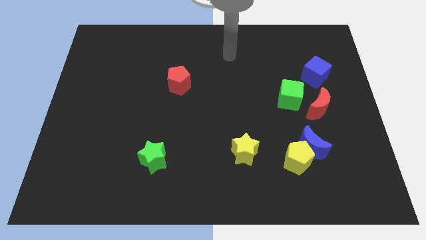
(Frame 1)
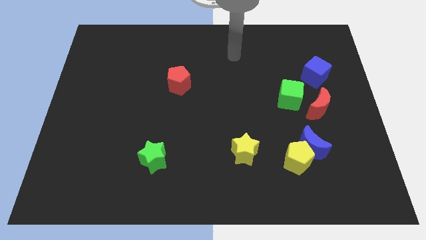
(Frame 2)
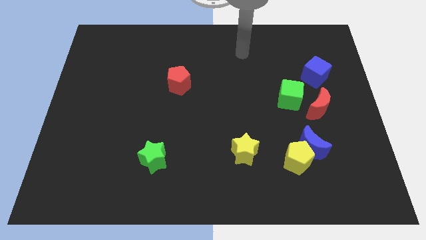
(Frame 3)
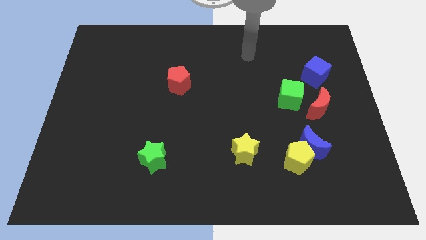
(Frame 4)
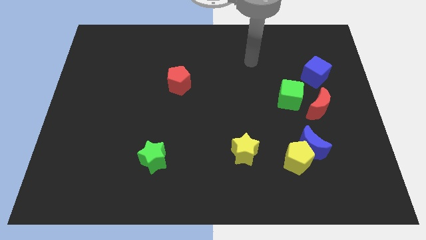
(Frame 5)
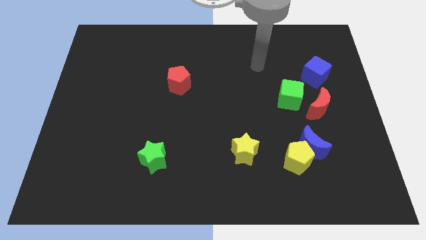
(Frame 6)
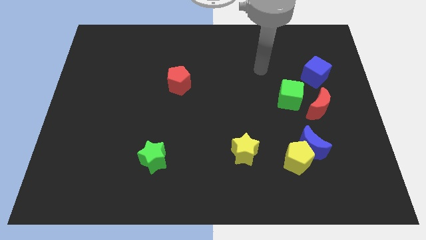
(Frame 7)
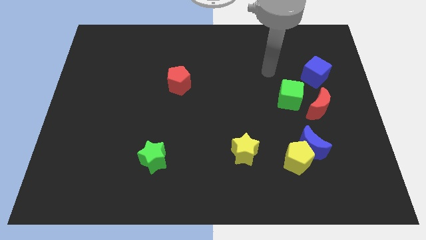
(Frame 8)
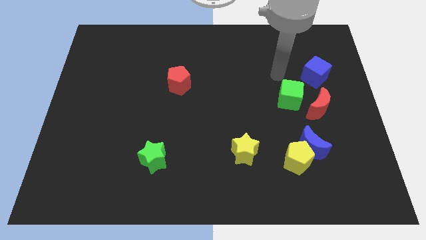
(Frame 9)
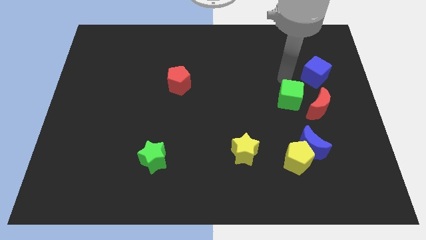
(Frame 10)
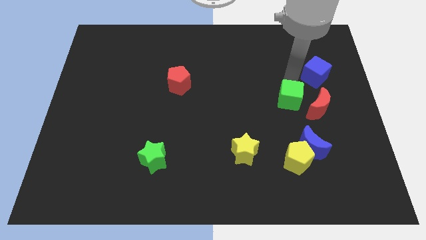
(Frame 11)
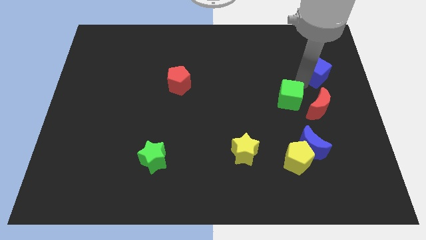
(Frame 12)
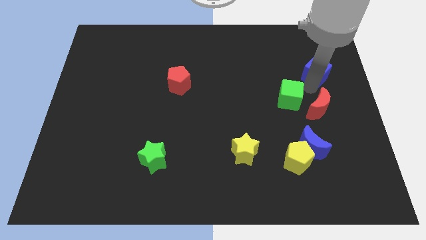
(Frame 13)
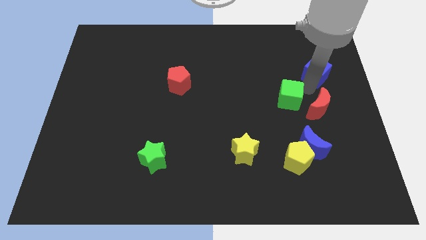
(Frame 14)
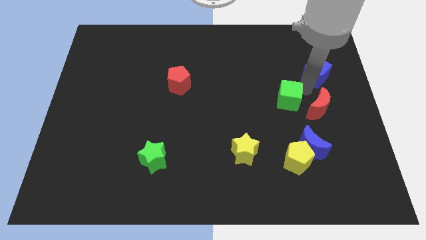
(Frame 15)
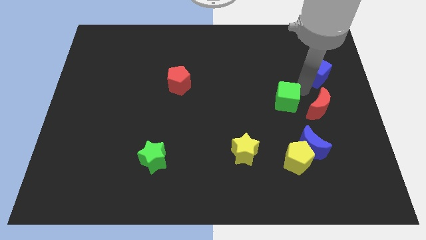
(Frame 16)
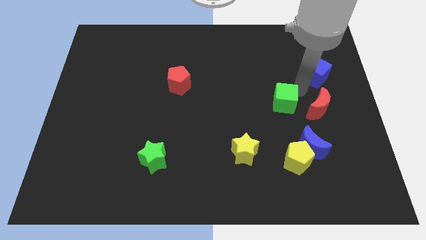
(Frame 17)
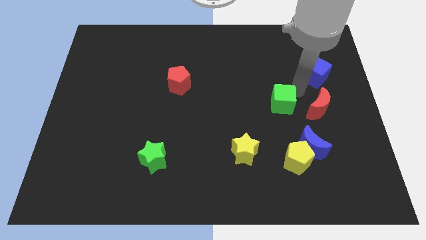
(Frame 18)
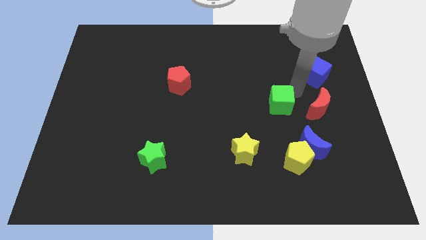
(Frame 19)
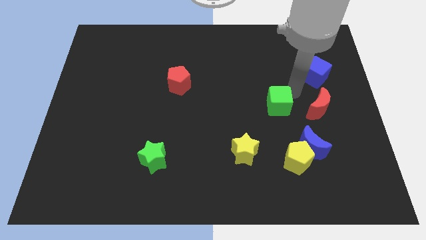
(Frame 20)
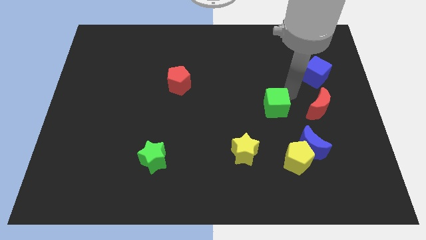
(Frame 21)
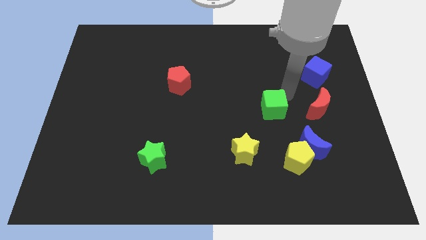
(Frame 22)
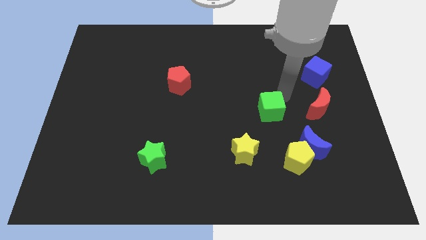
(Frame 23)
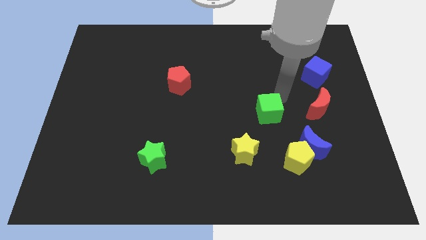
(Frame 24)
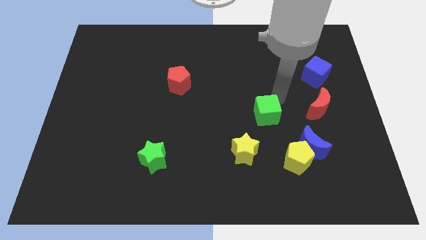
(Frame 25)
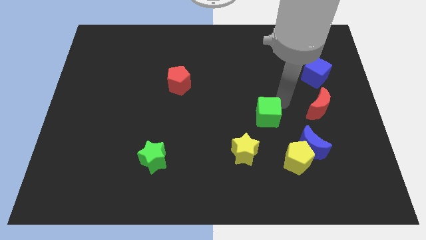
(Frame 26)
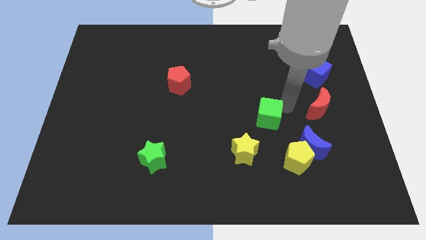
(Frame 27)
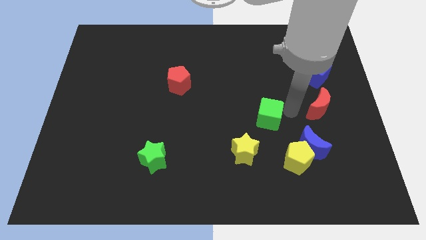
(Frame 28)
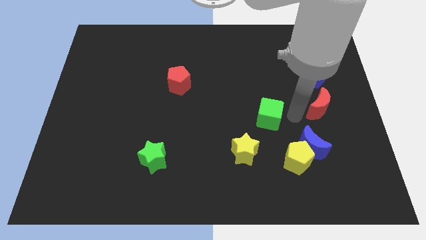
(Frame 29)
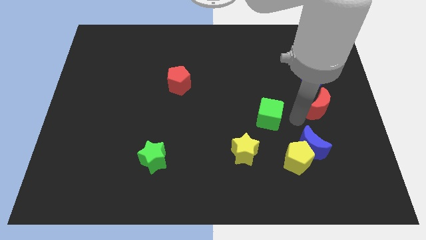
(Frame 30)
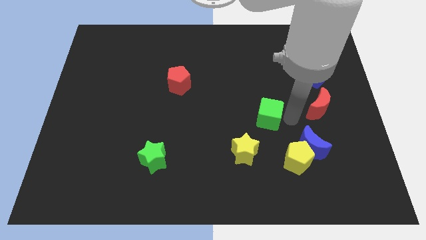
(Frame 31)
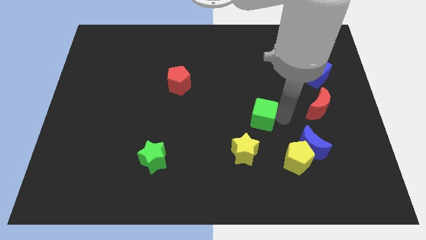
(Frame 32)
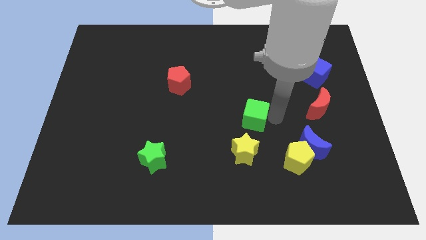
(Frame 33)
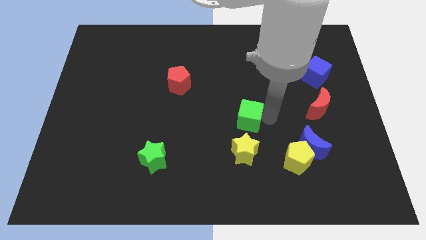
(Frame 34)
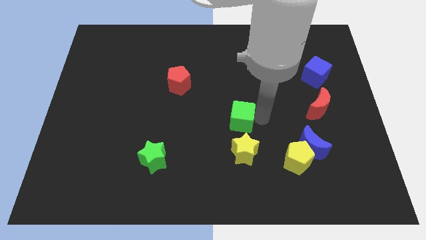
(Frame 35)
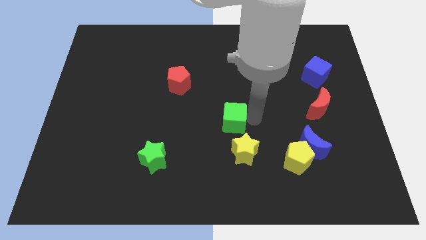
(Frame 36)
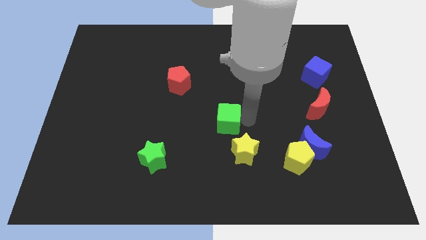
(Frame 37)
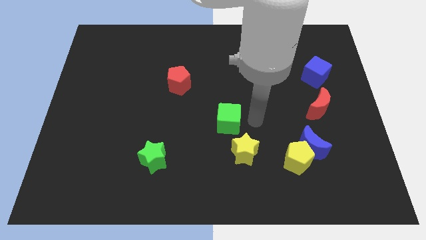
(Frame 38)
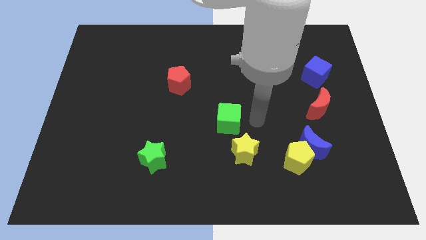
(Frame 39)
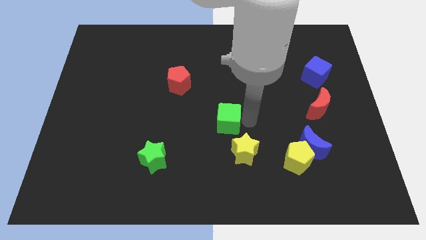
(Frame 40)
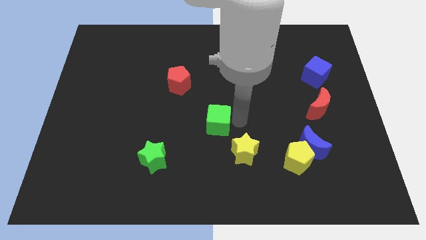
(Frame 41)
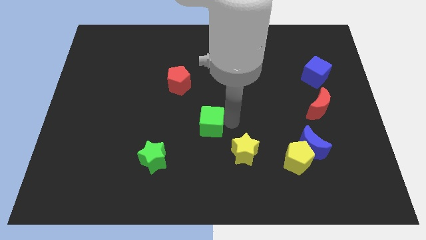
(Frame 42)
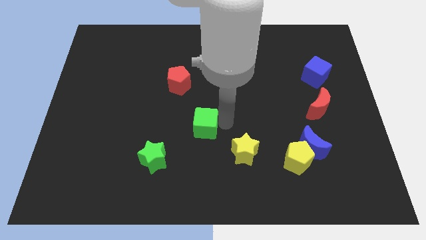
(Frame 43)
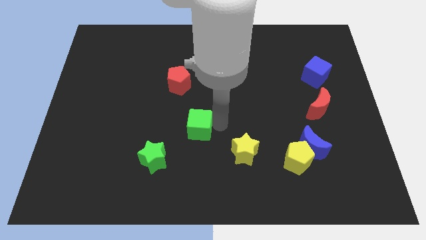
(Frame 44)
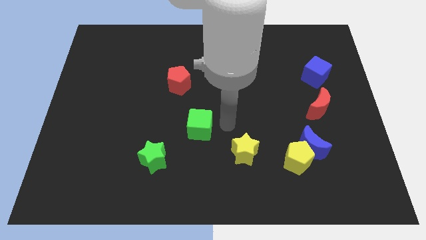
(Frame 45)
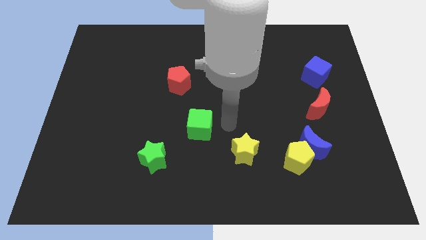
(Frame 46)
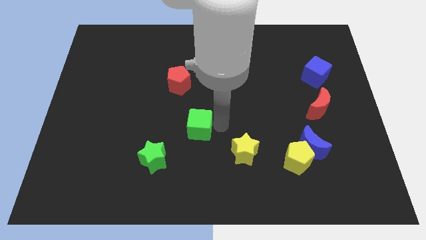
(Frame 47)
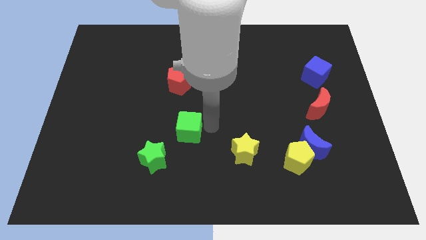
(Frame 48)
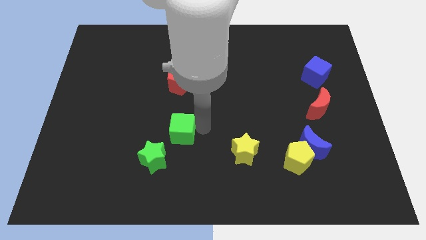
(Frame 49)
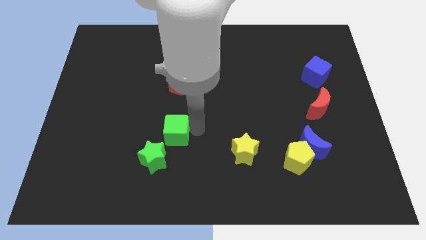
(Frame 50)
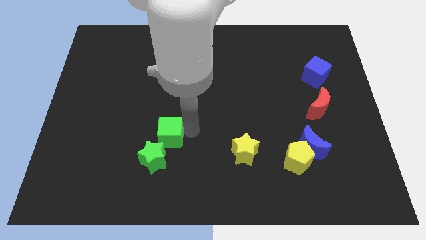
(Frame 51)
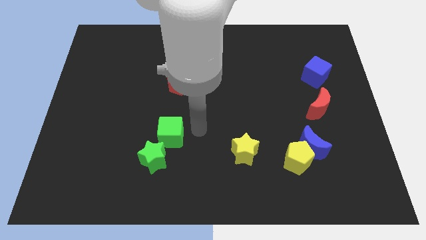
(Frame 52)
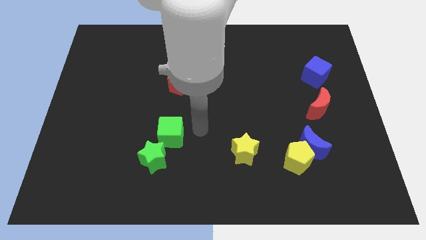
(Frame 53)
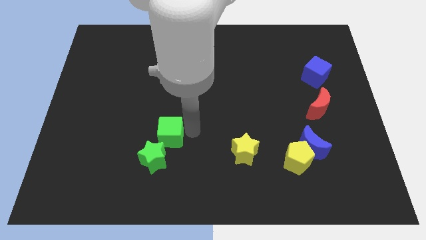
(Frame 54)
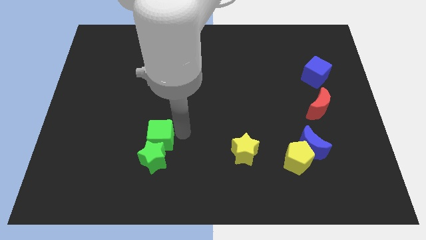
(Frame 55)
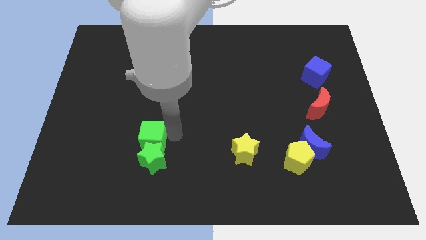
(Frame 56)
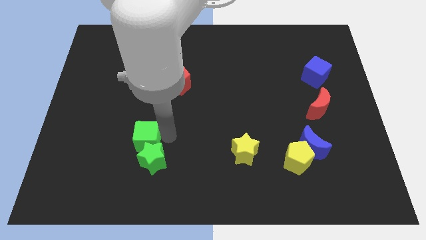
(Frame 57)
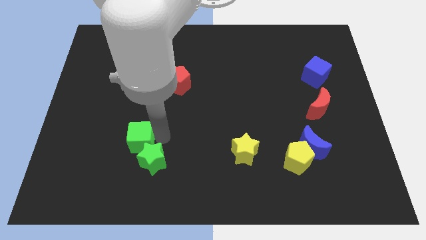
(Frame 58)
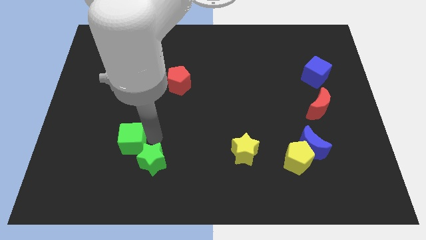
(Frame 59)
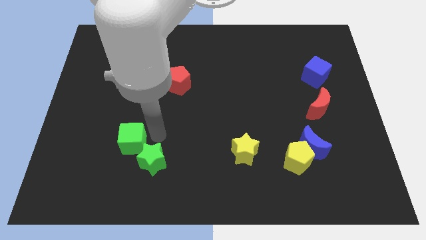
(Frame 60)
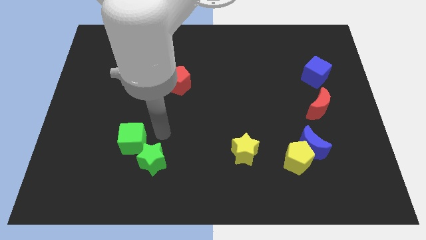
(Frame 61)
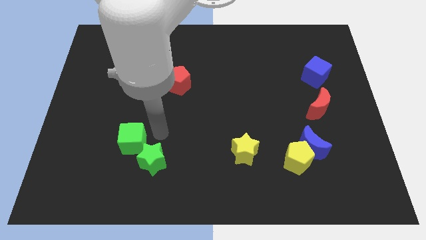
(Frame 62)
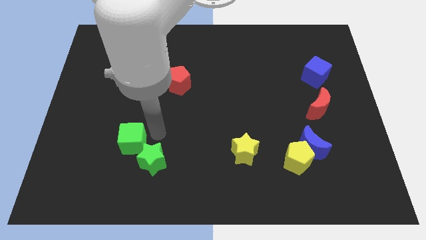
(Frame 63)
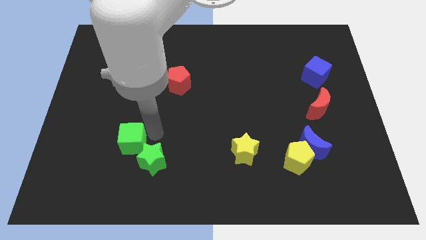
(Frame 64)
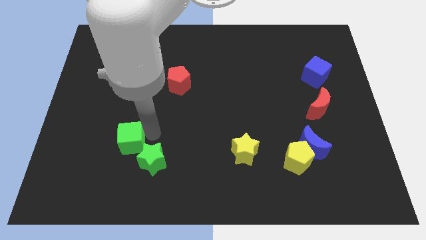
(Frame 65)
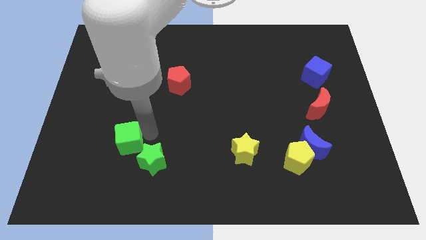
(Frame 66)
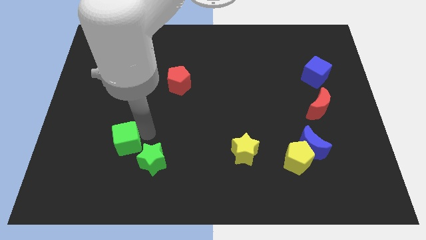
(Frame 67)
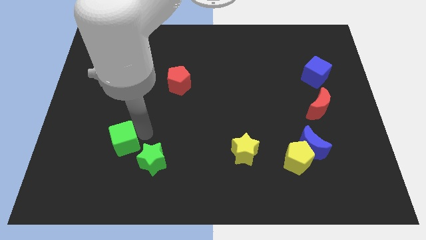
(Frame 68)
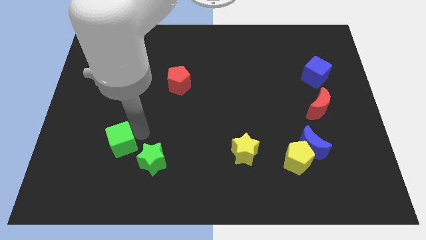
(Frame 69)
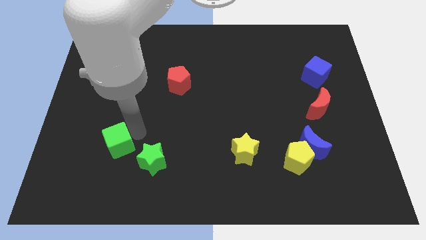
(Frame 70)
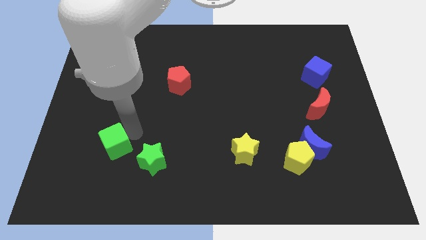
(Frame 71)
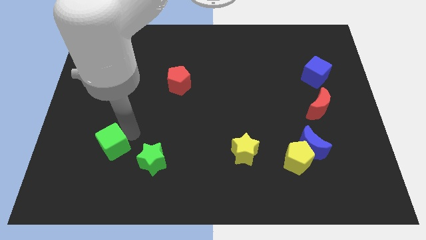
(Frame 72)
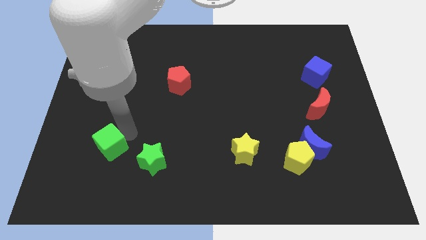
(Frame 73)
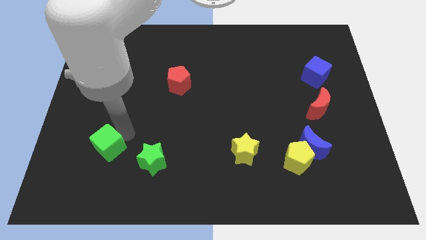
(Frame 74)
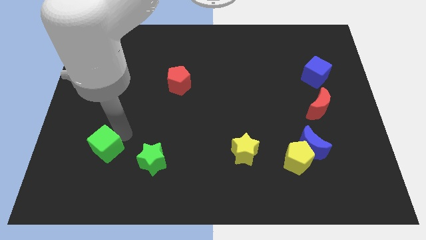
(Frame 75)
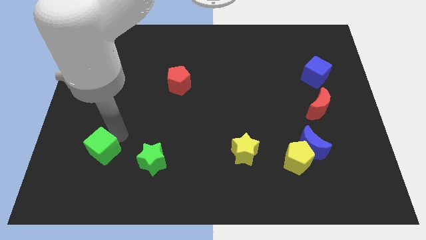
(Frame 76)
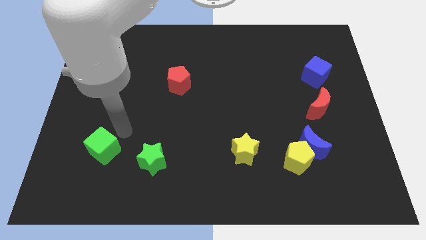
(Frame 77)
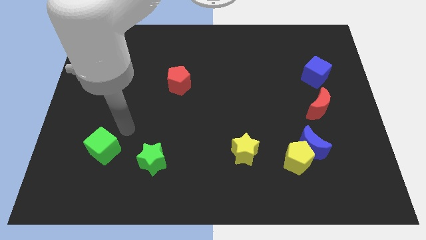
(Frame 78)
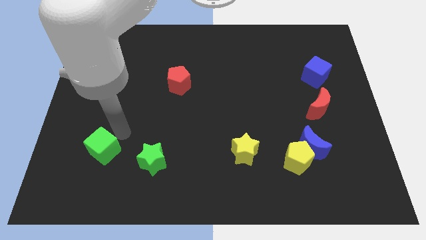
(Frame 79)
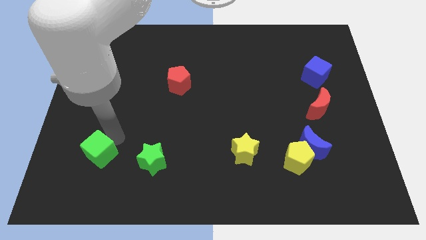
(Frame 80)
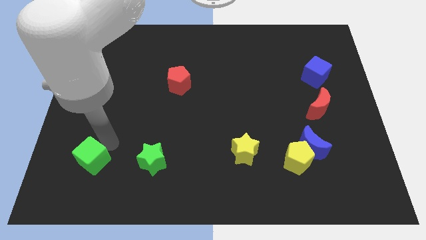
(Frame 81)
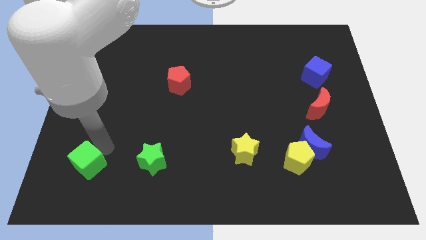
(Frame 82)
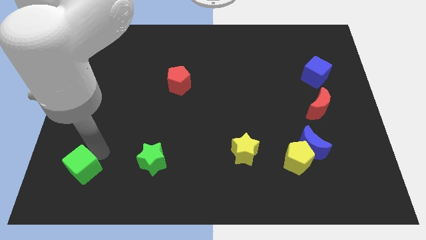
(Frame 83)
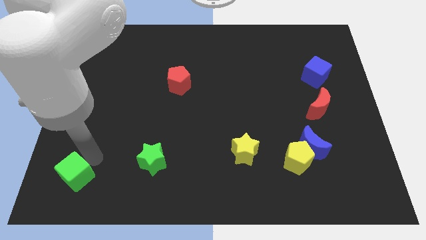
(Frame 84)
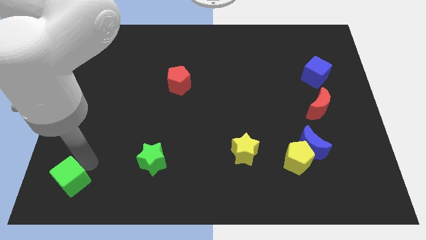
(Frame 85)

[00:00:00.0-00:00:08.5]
slide the green cube to the bottom left
